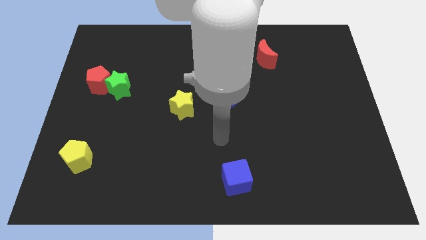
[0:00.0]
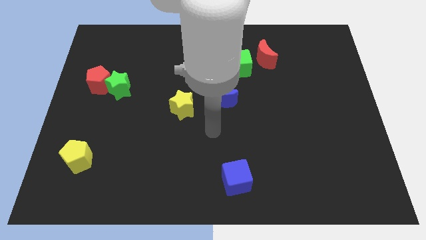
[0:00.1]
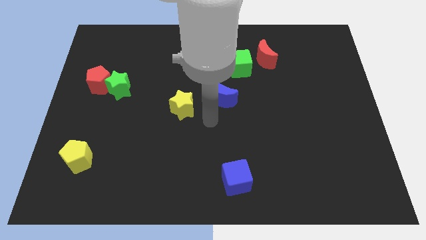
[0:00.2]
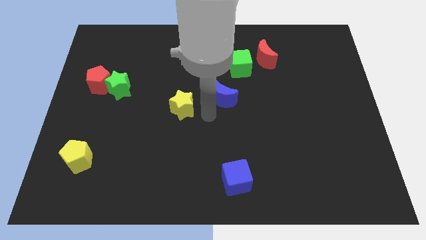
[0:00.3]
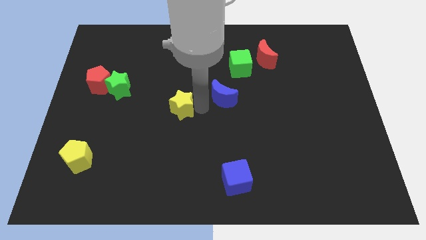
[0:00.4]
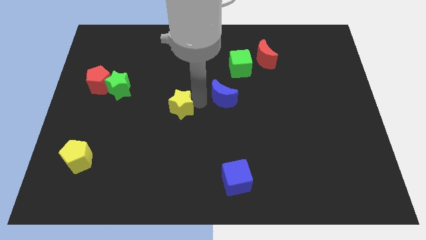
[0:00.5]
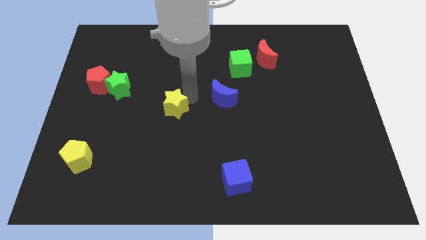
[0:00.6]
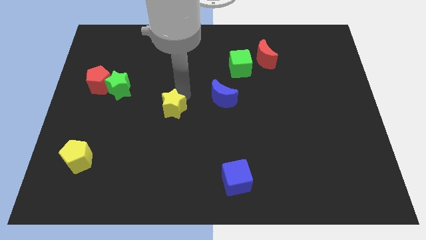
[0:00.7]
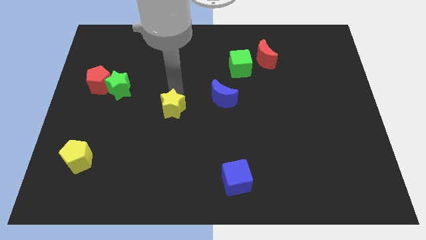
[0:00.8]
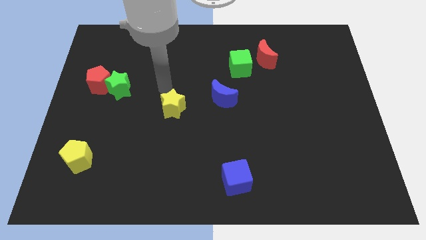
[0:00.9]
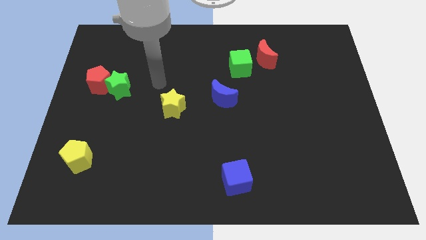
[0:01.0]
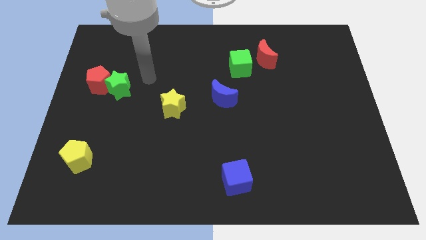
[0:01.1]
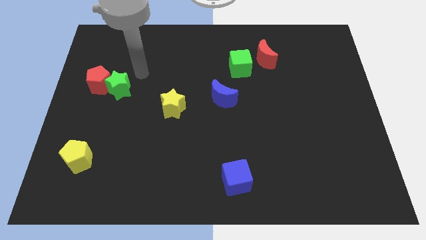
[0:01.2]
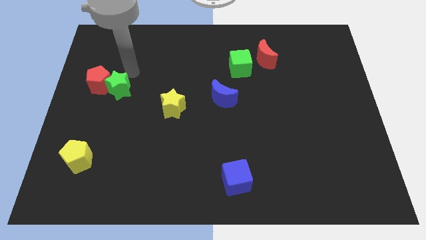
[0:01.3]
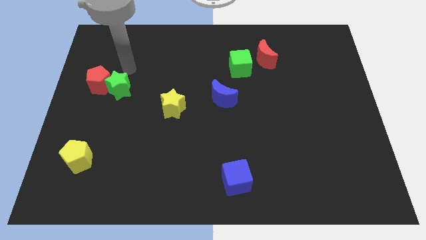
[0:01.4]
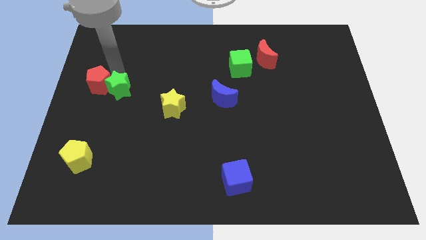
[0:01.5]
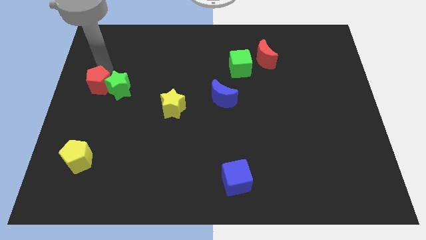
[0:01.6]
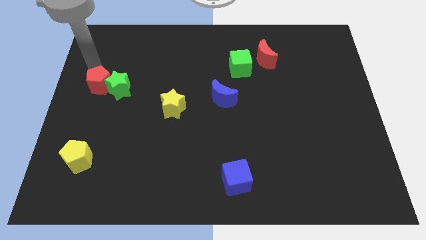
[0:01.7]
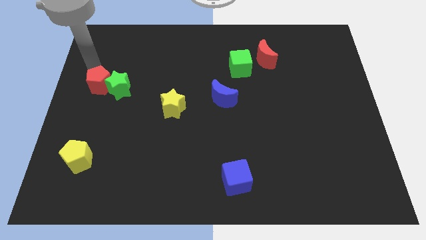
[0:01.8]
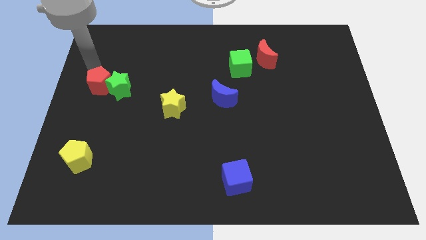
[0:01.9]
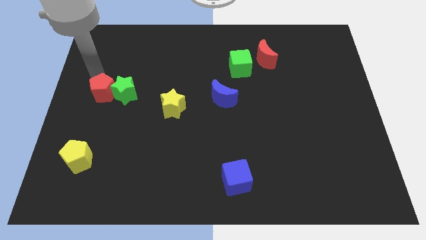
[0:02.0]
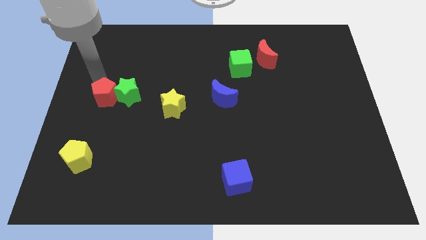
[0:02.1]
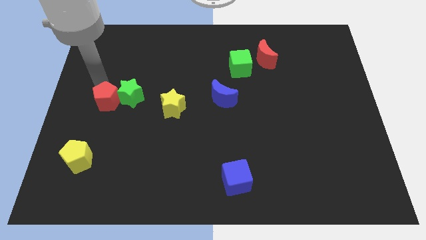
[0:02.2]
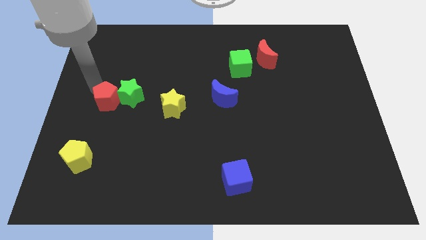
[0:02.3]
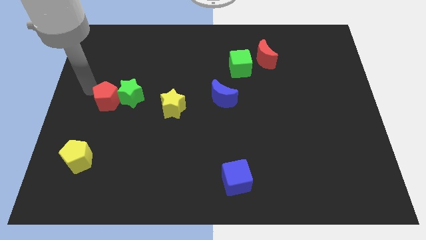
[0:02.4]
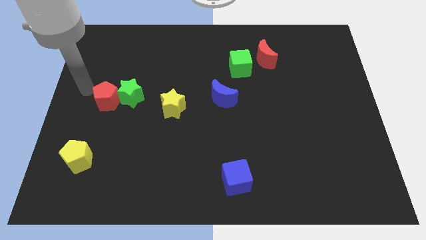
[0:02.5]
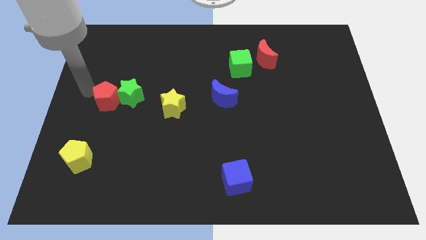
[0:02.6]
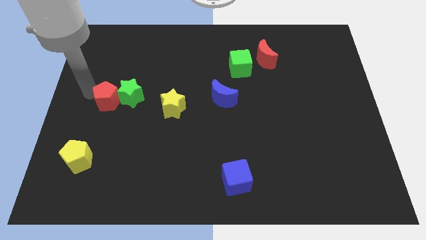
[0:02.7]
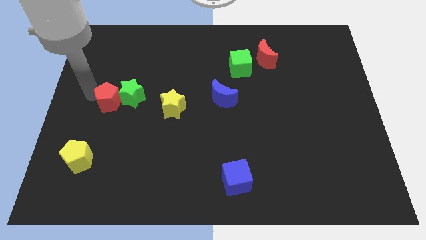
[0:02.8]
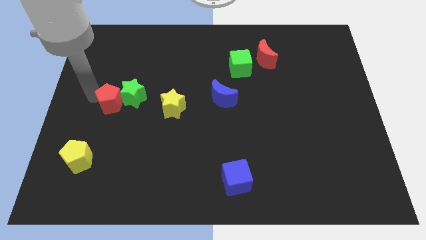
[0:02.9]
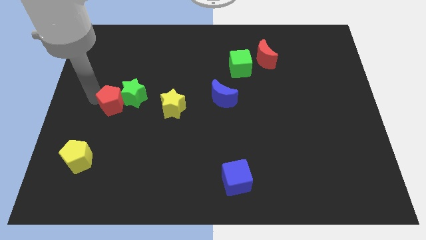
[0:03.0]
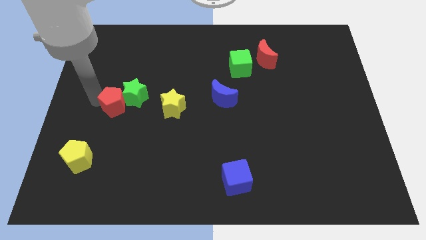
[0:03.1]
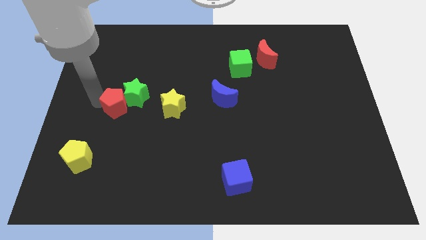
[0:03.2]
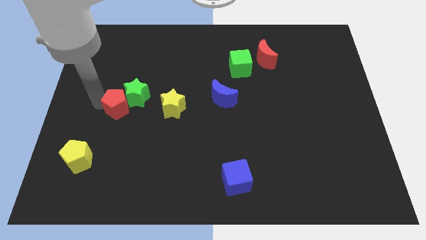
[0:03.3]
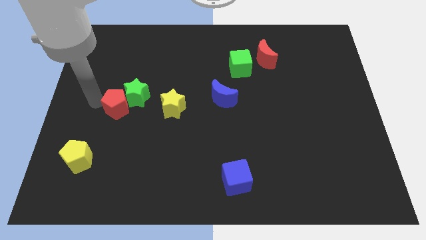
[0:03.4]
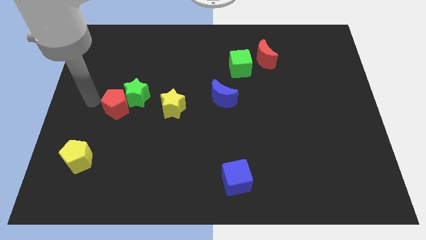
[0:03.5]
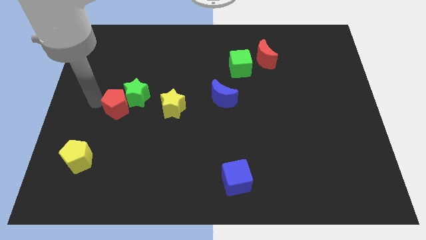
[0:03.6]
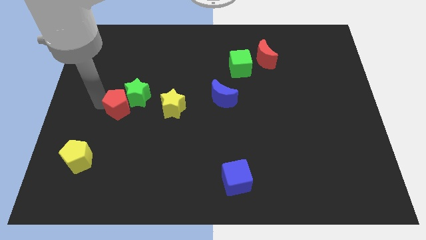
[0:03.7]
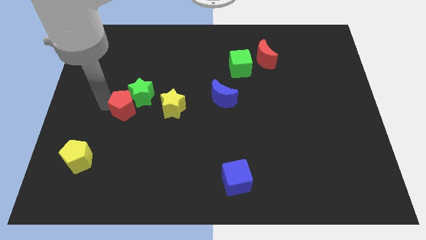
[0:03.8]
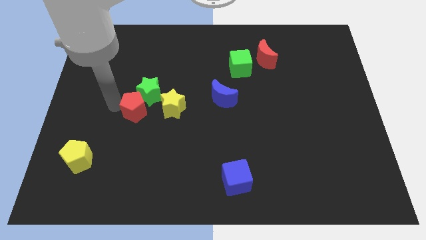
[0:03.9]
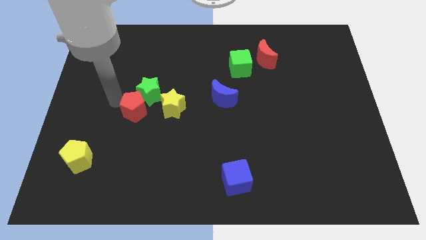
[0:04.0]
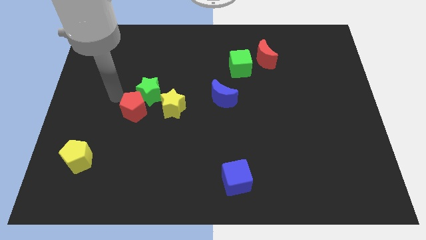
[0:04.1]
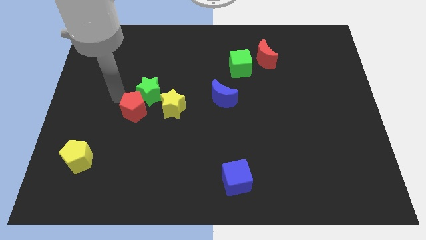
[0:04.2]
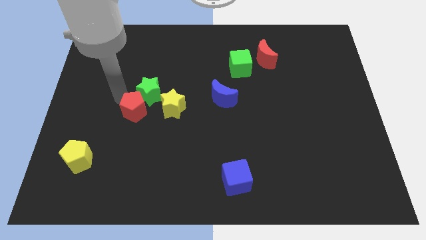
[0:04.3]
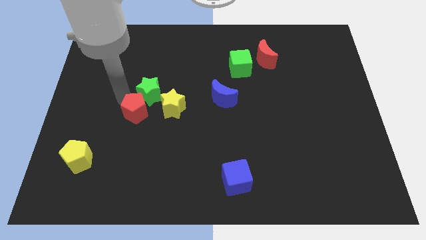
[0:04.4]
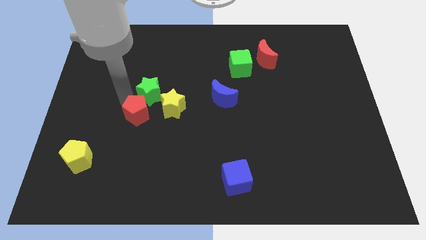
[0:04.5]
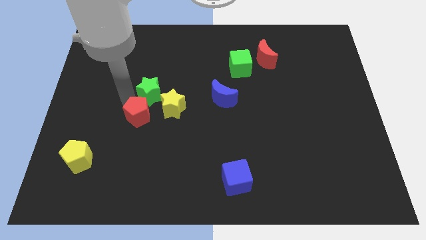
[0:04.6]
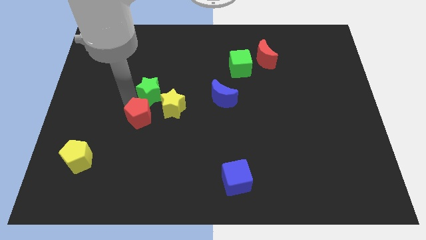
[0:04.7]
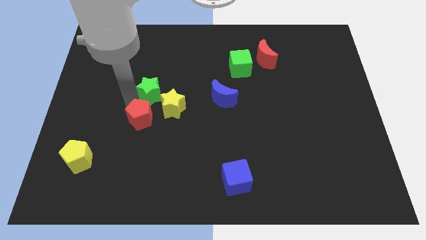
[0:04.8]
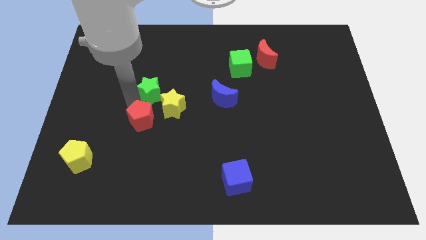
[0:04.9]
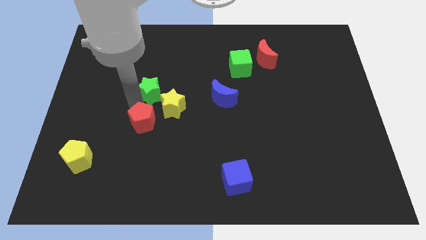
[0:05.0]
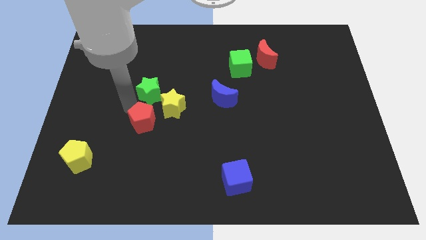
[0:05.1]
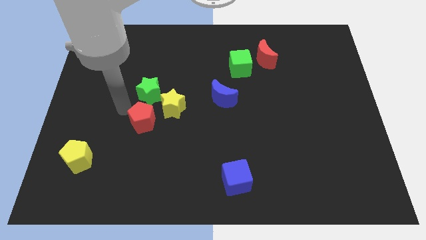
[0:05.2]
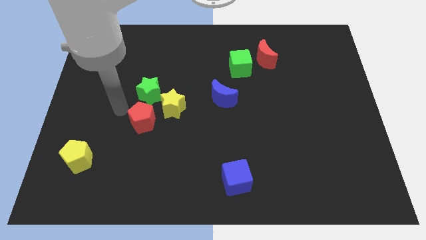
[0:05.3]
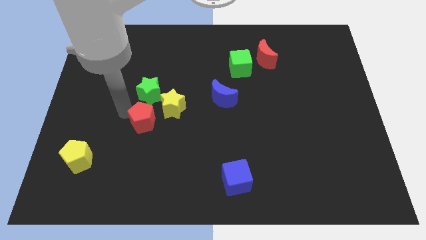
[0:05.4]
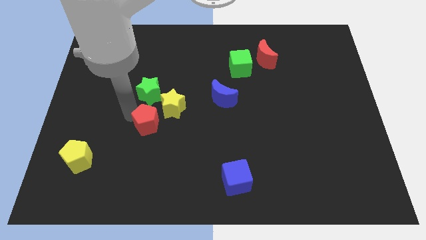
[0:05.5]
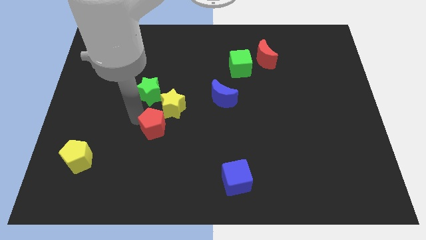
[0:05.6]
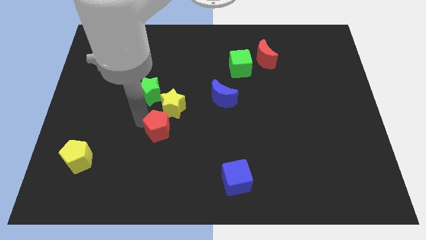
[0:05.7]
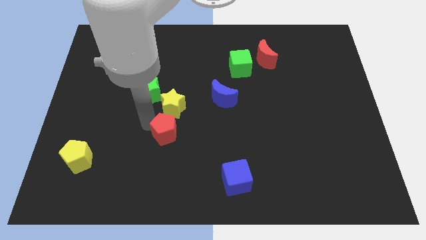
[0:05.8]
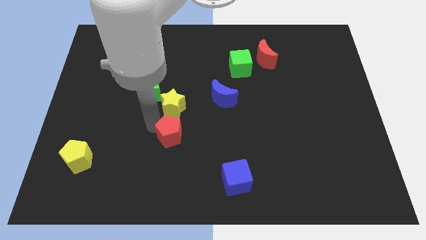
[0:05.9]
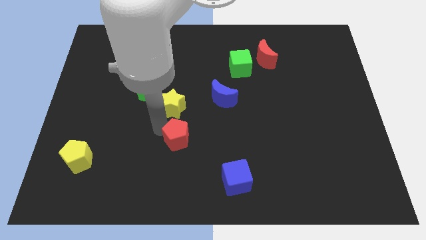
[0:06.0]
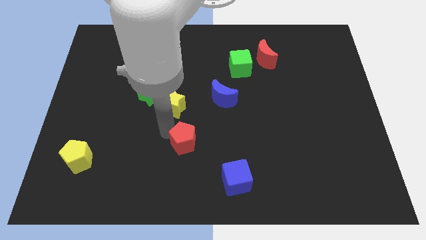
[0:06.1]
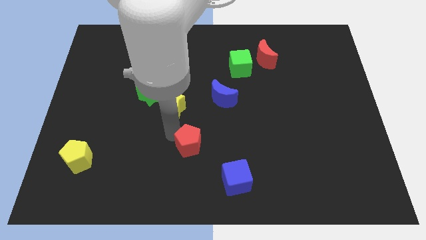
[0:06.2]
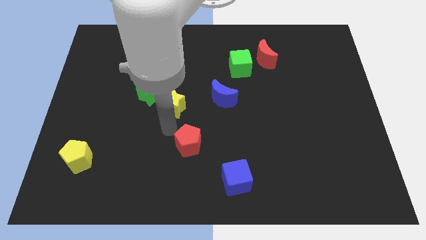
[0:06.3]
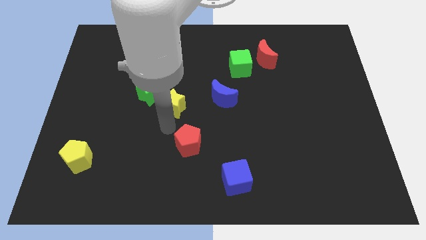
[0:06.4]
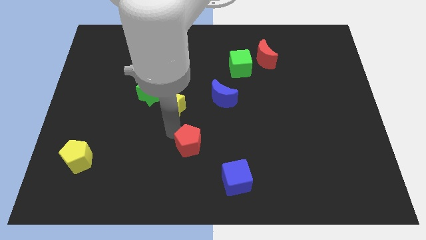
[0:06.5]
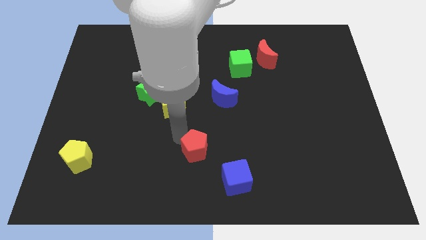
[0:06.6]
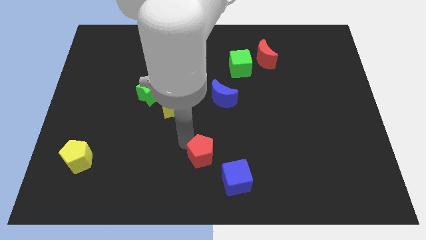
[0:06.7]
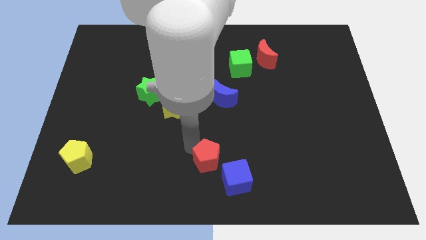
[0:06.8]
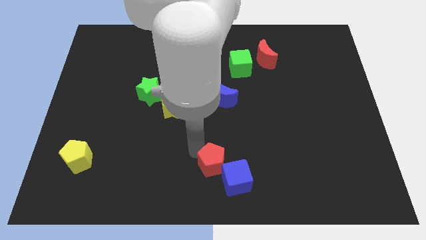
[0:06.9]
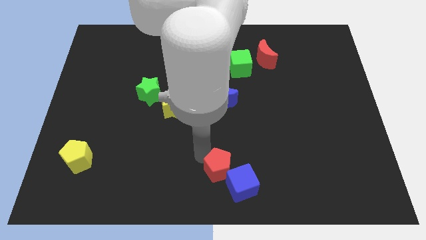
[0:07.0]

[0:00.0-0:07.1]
move the red pentagon to the blue cube

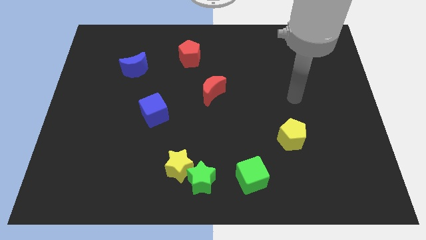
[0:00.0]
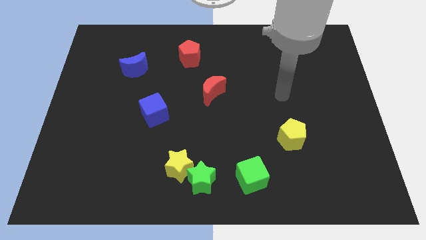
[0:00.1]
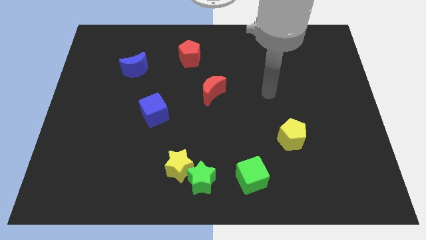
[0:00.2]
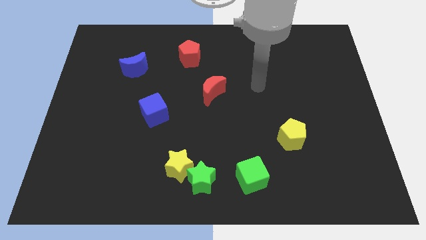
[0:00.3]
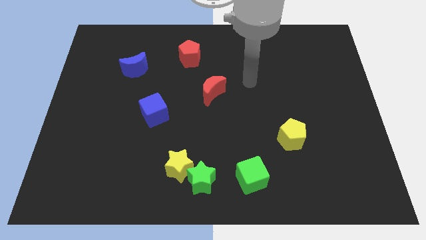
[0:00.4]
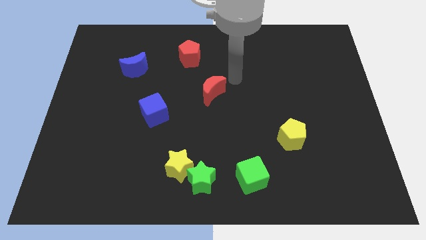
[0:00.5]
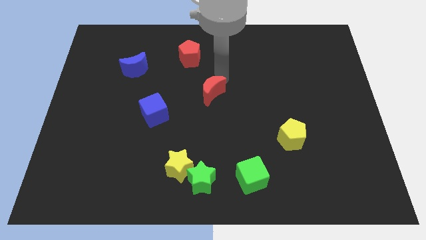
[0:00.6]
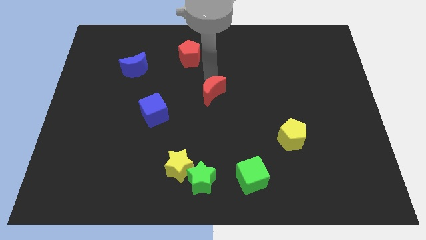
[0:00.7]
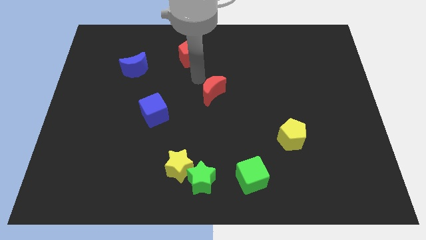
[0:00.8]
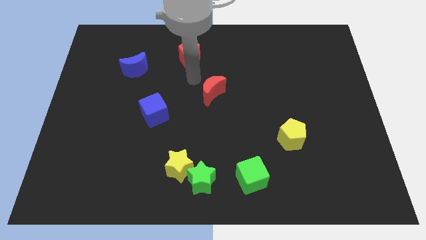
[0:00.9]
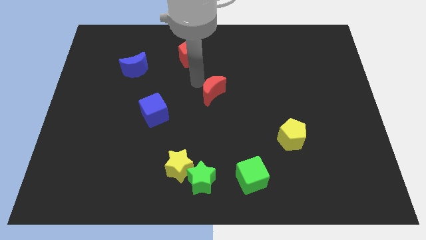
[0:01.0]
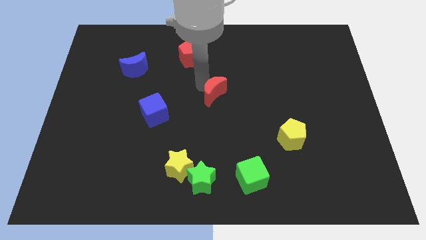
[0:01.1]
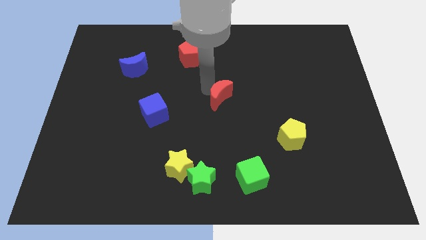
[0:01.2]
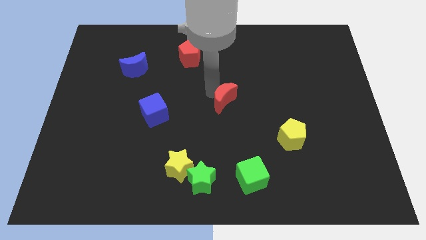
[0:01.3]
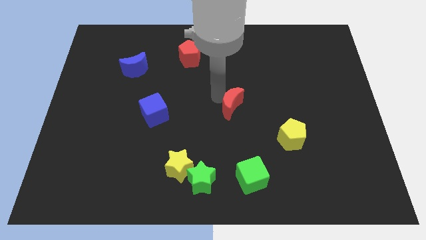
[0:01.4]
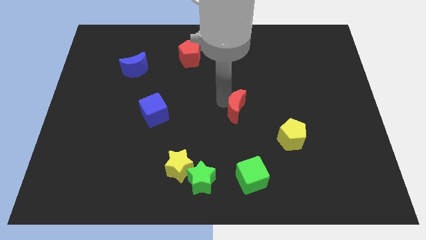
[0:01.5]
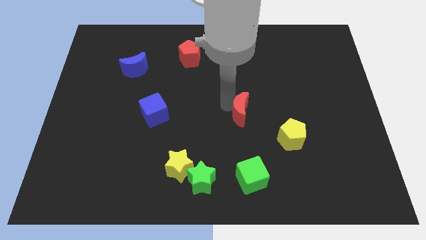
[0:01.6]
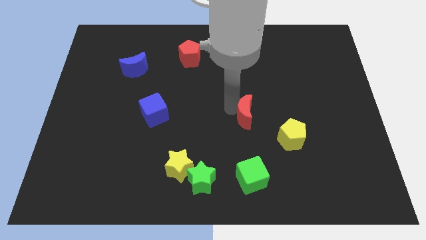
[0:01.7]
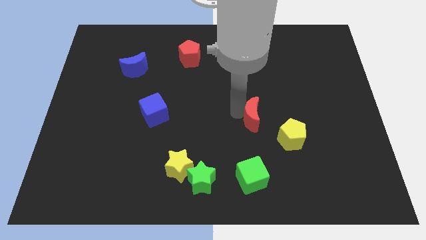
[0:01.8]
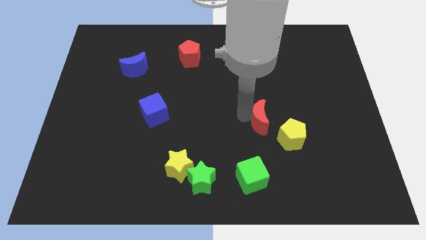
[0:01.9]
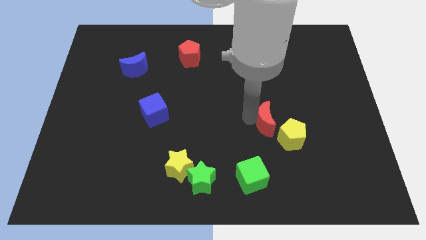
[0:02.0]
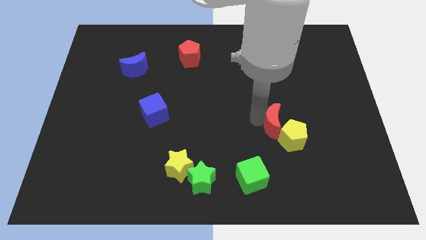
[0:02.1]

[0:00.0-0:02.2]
move the red moon next to the yellow pentagon
